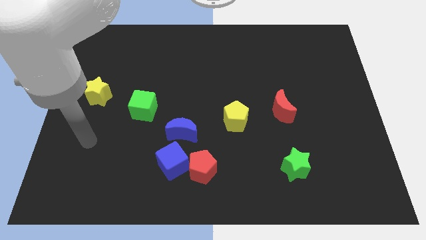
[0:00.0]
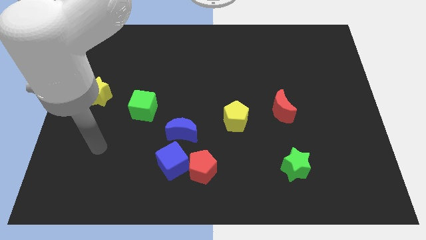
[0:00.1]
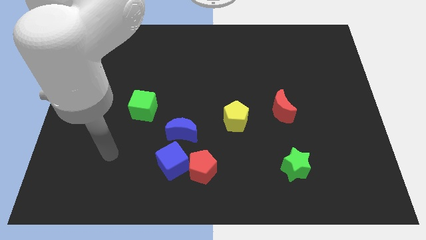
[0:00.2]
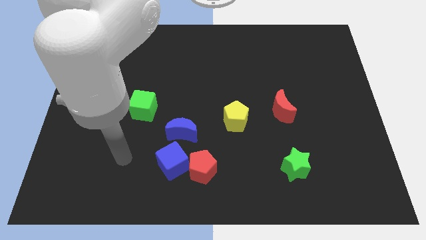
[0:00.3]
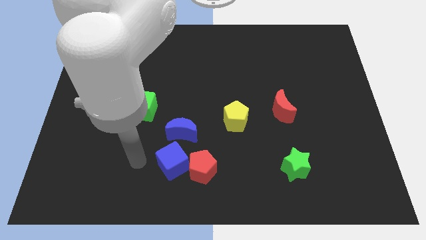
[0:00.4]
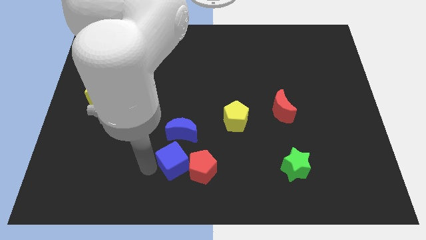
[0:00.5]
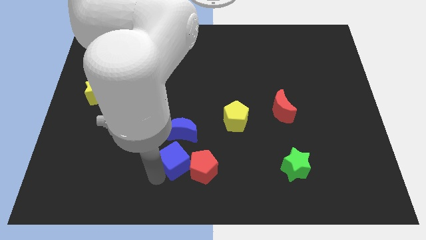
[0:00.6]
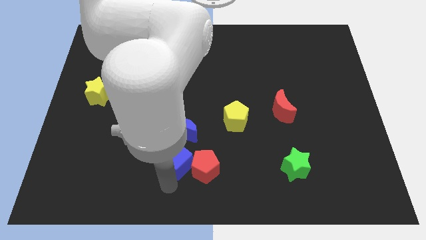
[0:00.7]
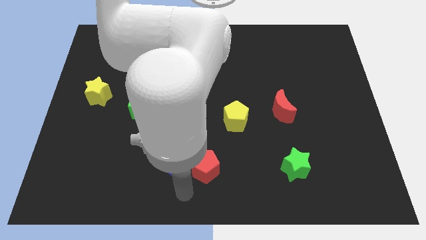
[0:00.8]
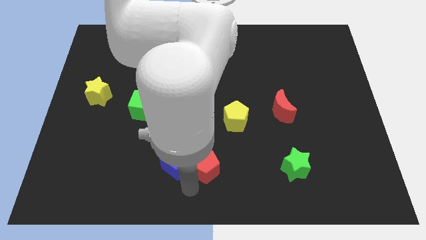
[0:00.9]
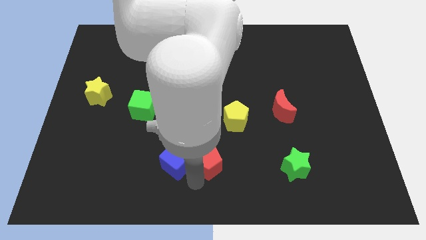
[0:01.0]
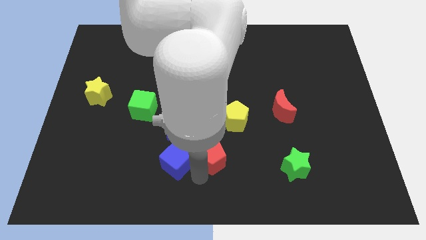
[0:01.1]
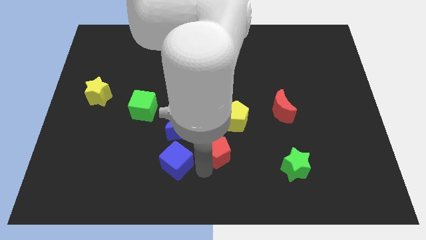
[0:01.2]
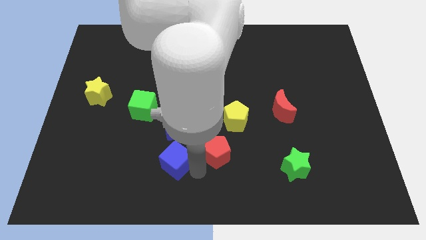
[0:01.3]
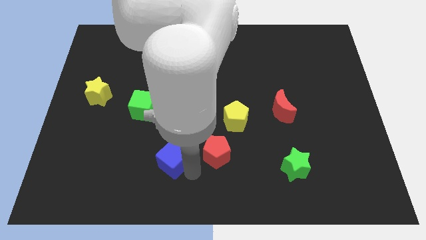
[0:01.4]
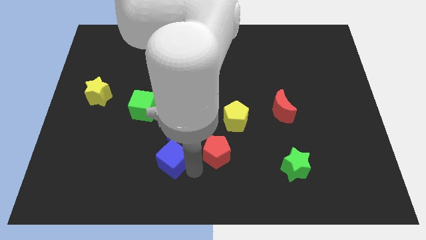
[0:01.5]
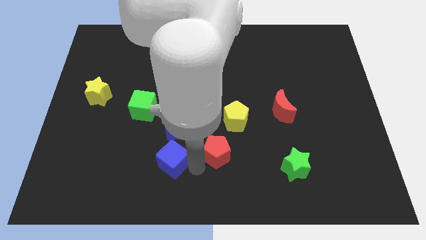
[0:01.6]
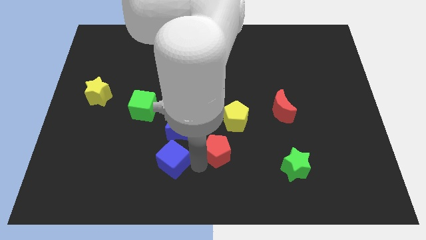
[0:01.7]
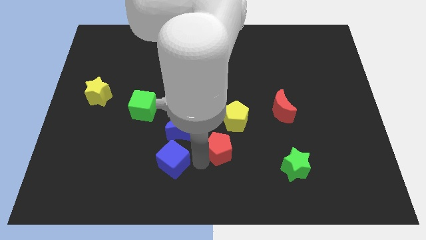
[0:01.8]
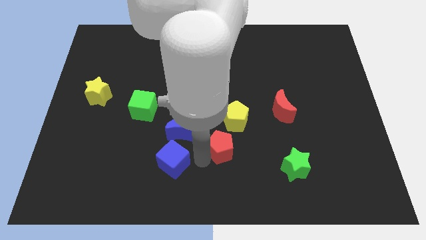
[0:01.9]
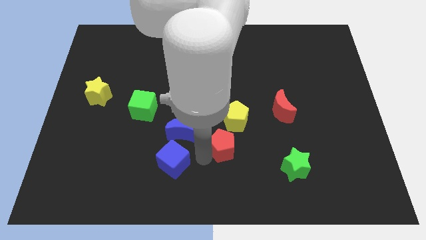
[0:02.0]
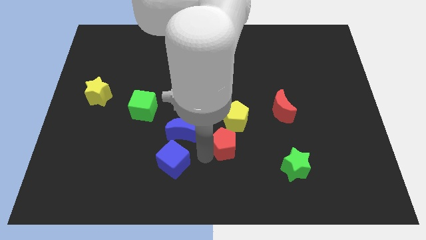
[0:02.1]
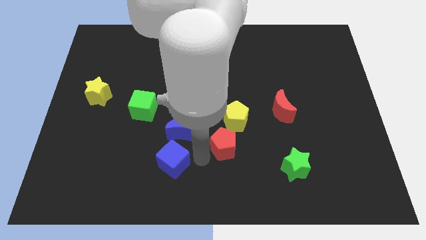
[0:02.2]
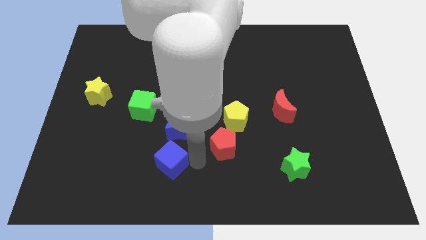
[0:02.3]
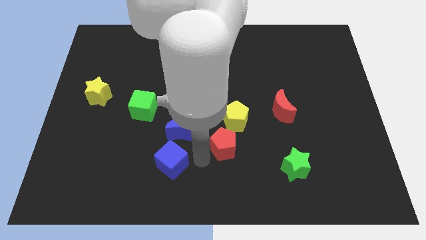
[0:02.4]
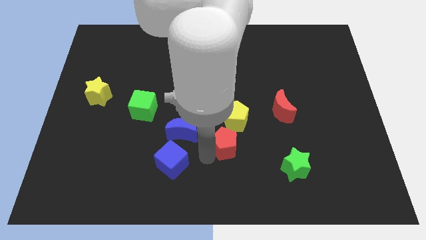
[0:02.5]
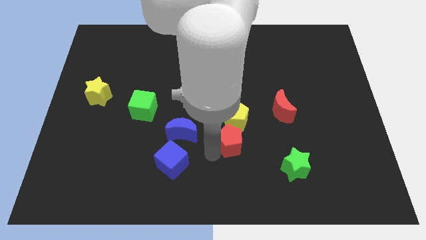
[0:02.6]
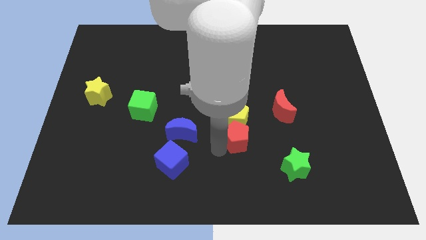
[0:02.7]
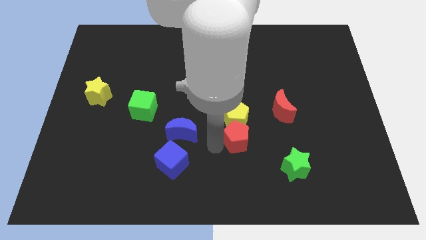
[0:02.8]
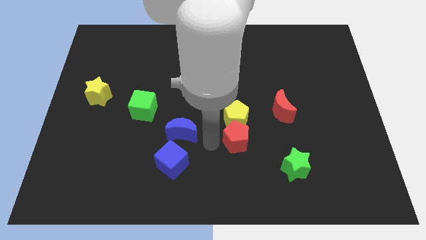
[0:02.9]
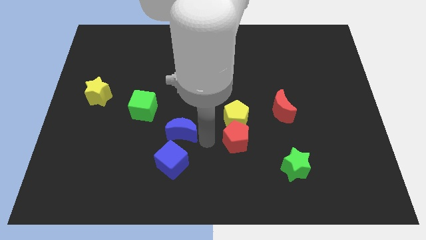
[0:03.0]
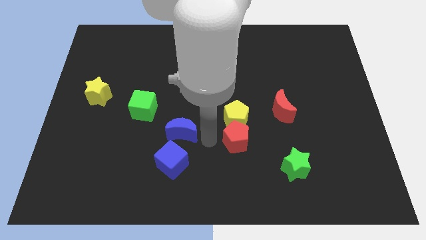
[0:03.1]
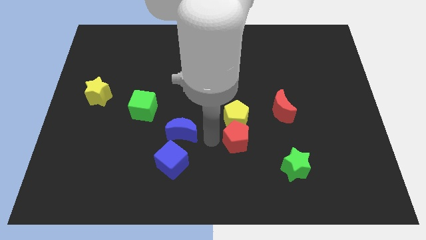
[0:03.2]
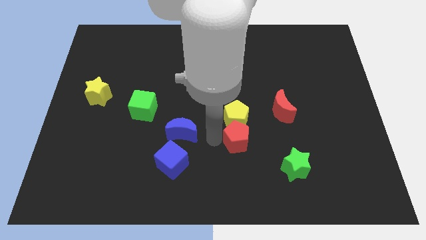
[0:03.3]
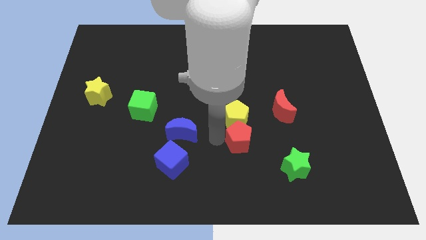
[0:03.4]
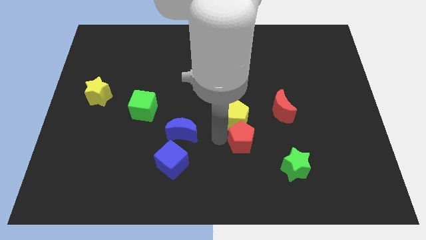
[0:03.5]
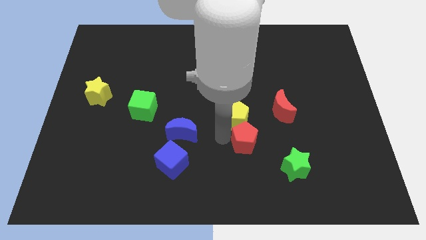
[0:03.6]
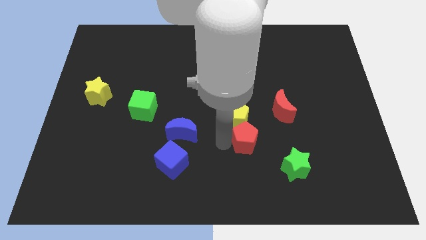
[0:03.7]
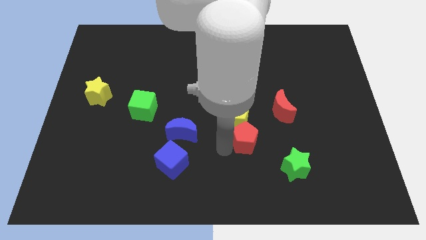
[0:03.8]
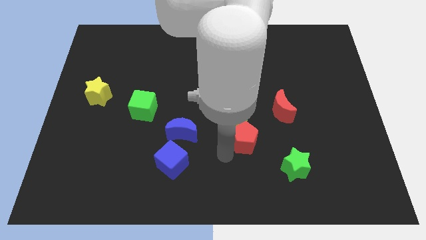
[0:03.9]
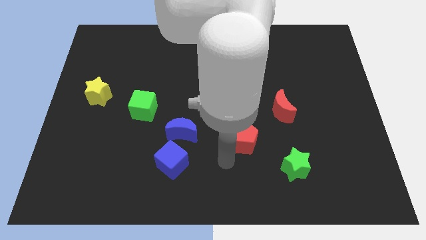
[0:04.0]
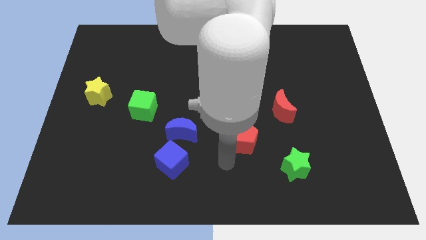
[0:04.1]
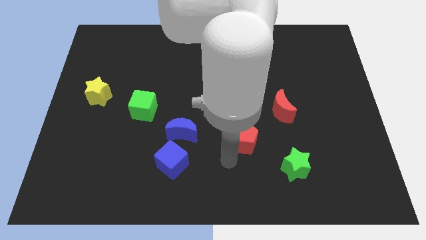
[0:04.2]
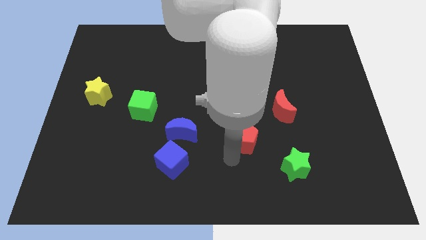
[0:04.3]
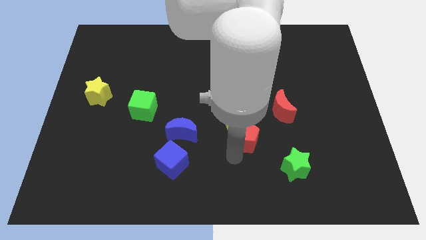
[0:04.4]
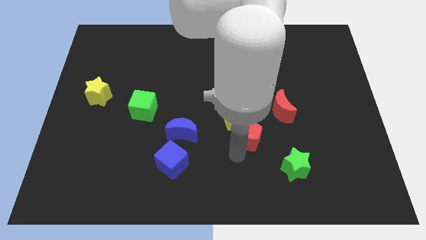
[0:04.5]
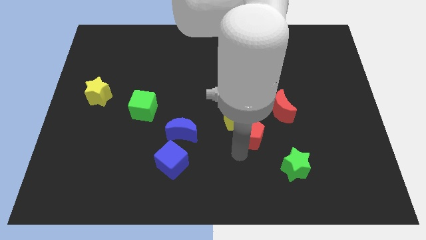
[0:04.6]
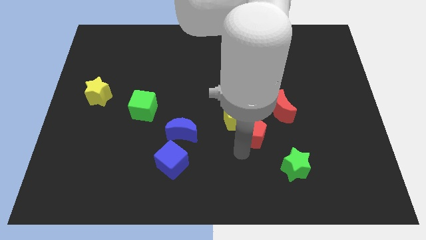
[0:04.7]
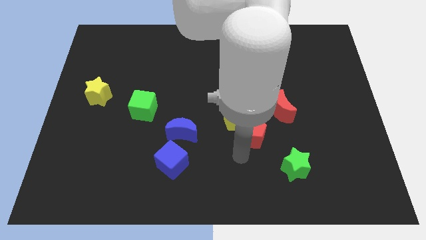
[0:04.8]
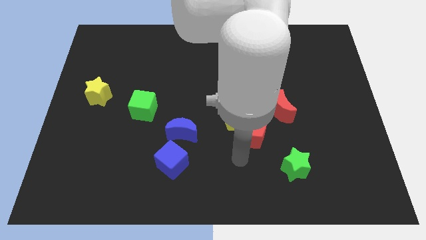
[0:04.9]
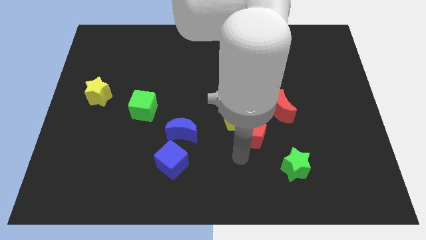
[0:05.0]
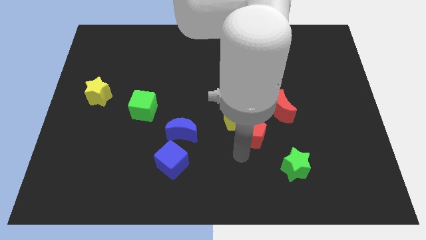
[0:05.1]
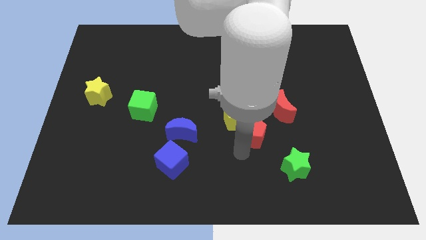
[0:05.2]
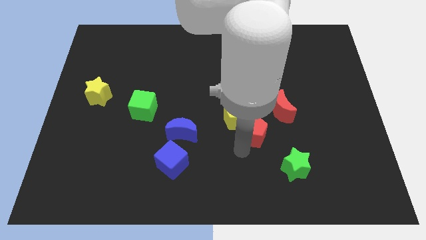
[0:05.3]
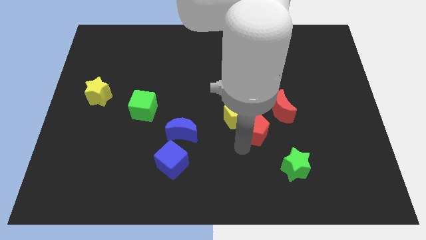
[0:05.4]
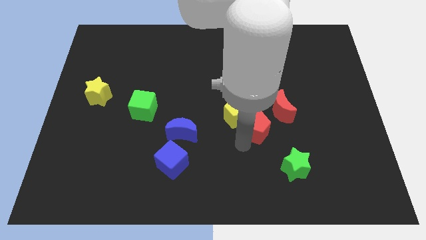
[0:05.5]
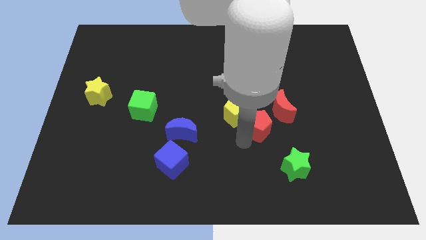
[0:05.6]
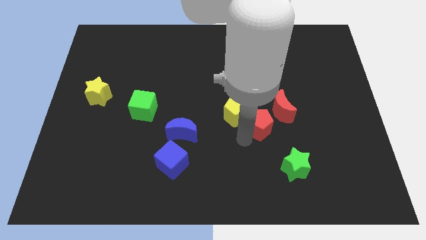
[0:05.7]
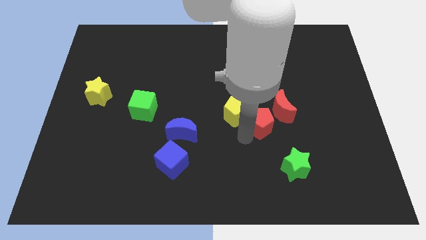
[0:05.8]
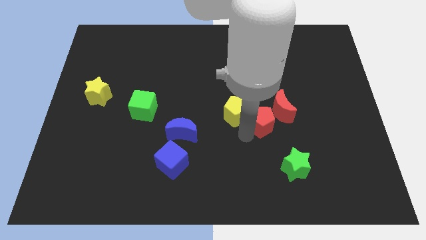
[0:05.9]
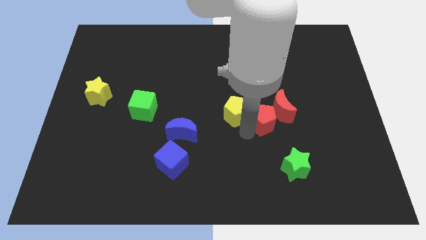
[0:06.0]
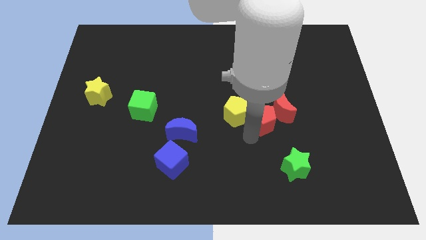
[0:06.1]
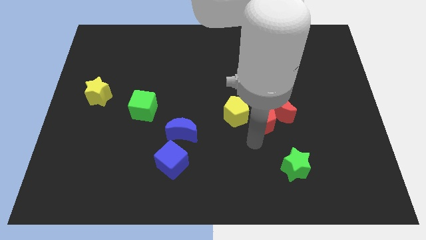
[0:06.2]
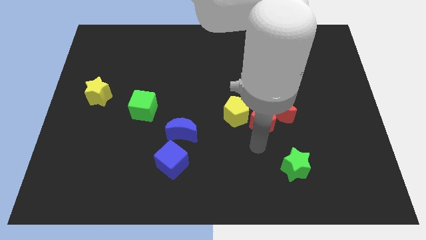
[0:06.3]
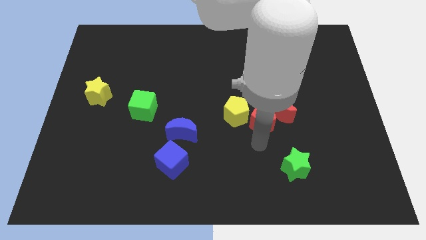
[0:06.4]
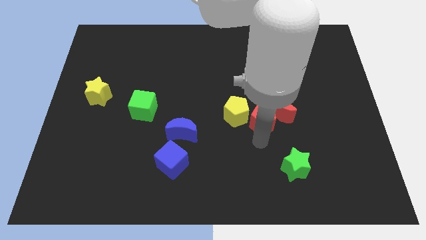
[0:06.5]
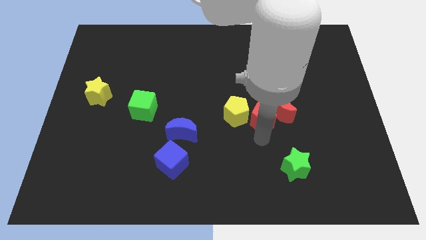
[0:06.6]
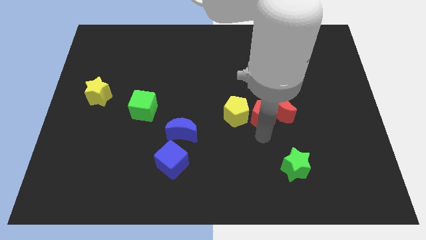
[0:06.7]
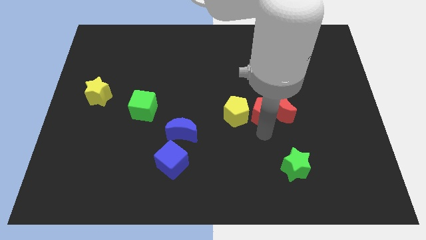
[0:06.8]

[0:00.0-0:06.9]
push the red pentagon diagonally upwards and to the right

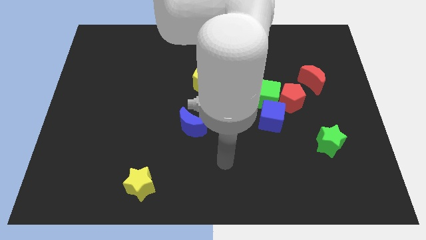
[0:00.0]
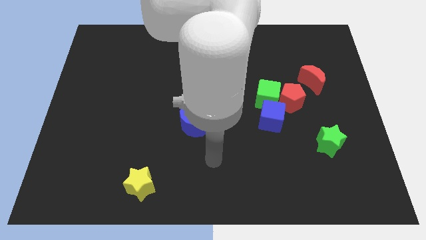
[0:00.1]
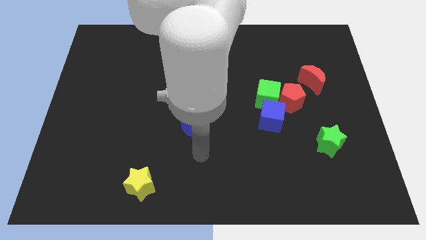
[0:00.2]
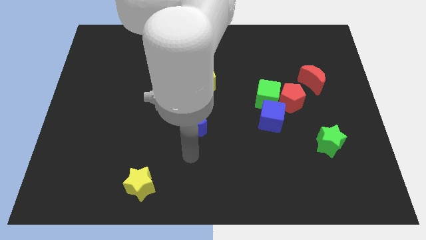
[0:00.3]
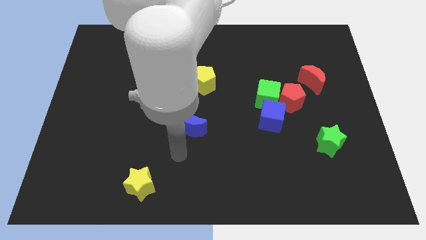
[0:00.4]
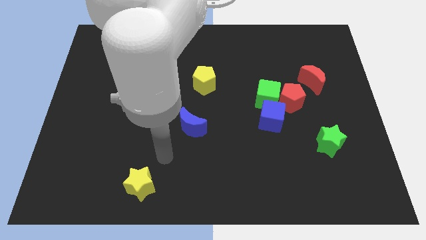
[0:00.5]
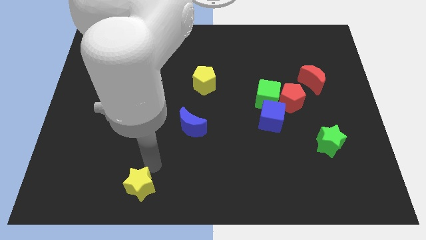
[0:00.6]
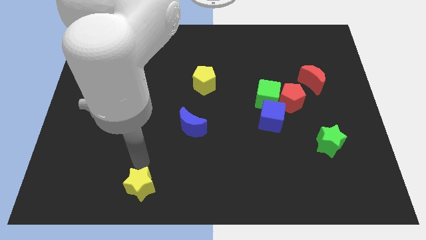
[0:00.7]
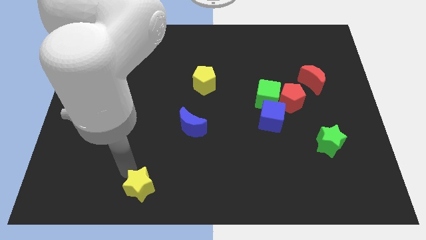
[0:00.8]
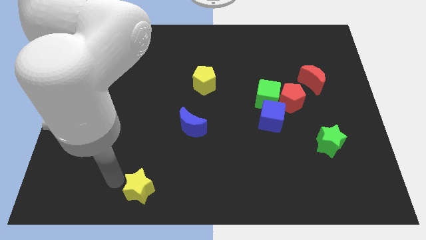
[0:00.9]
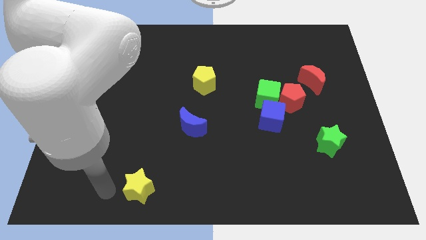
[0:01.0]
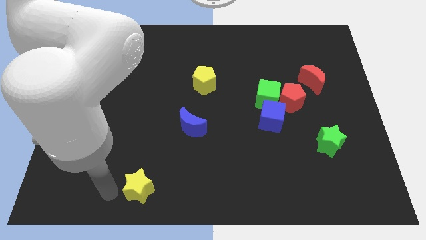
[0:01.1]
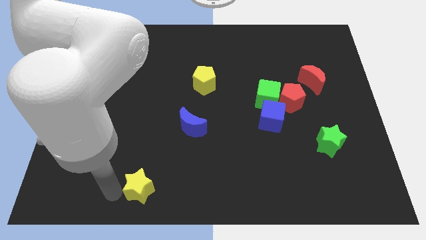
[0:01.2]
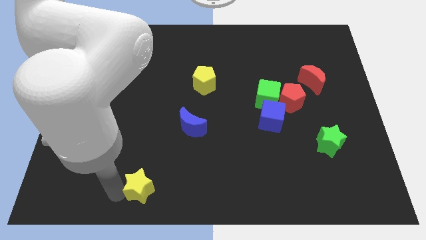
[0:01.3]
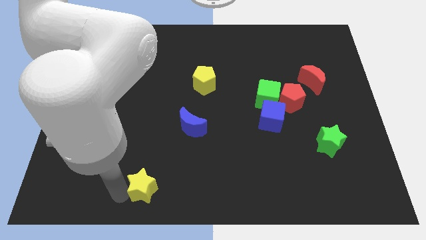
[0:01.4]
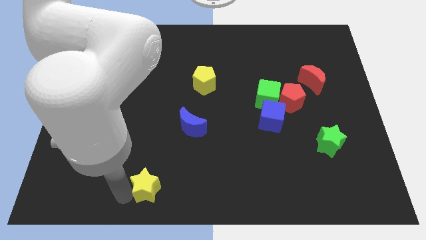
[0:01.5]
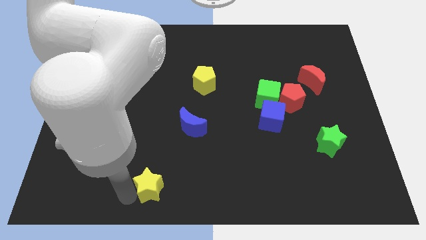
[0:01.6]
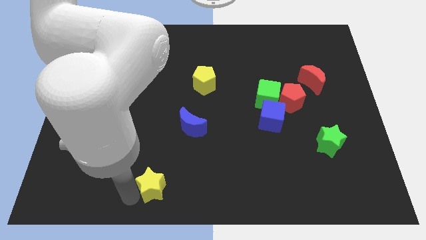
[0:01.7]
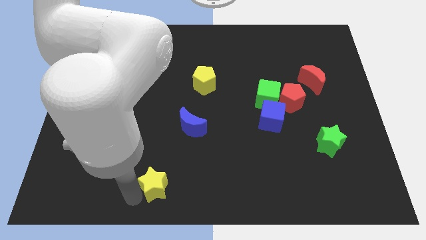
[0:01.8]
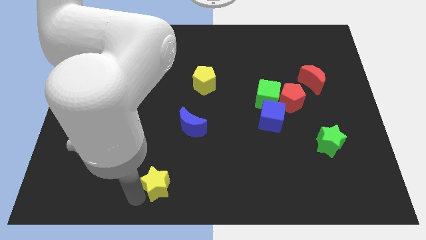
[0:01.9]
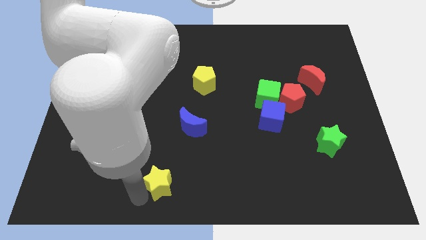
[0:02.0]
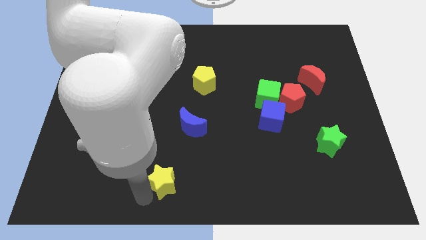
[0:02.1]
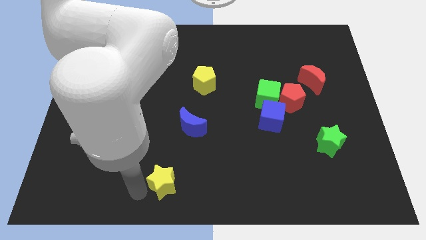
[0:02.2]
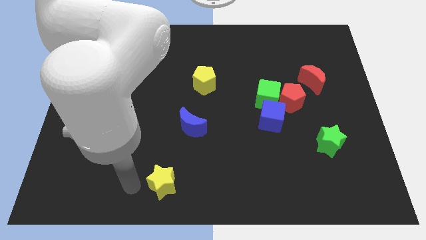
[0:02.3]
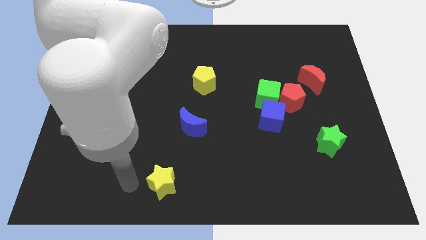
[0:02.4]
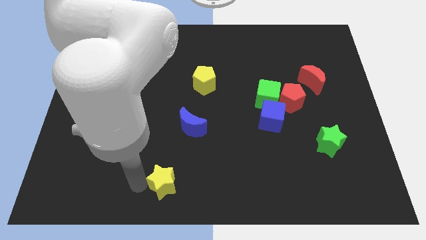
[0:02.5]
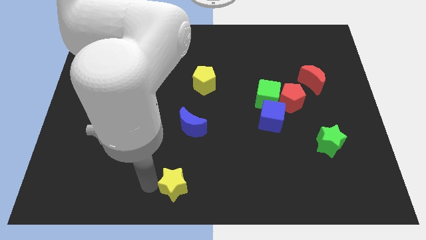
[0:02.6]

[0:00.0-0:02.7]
push the yellow star somewhat right
